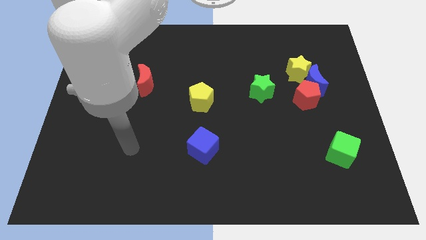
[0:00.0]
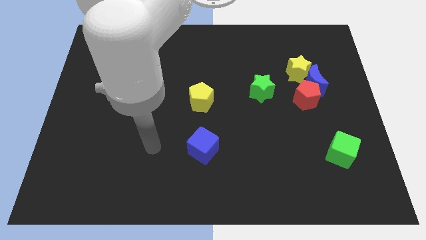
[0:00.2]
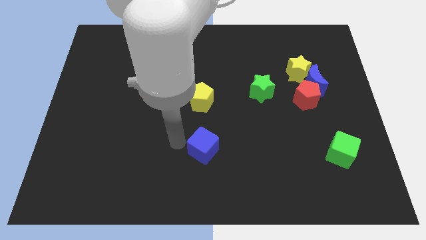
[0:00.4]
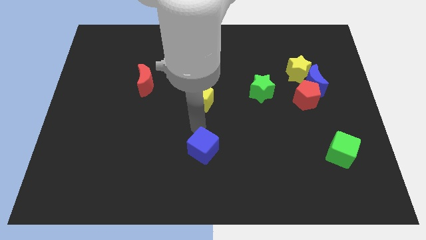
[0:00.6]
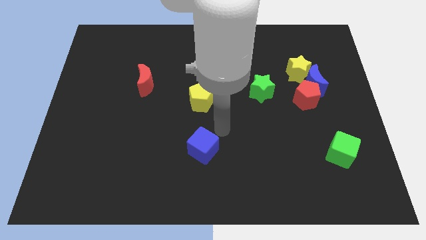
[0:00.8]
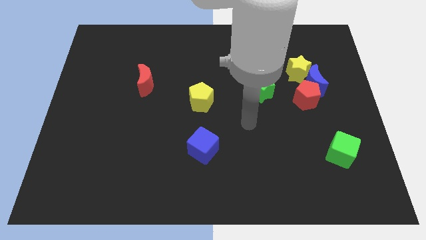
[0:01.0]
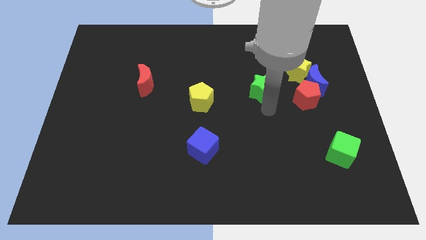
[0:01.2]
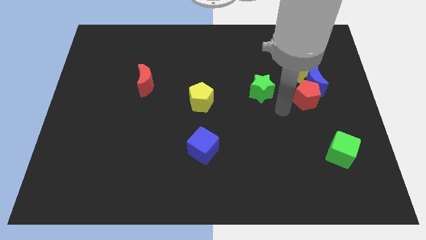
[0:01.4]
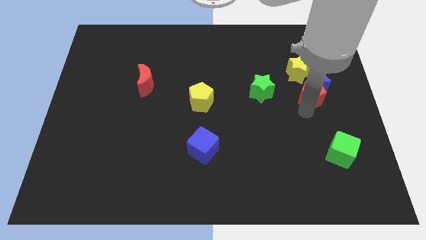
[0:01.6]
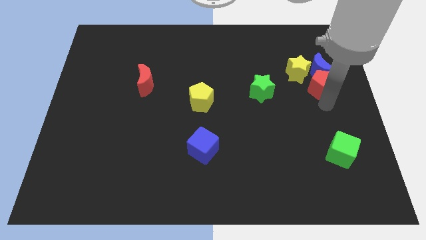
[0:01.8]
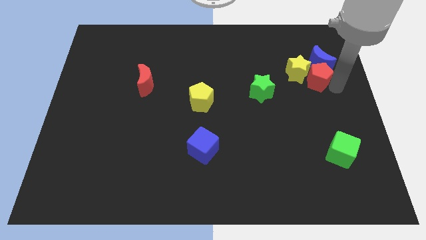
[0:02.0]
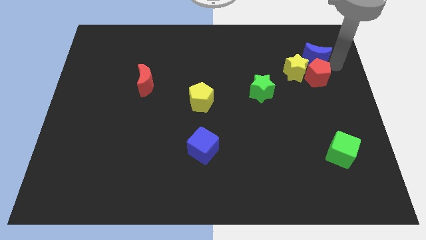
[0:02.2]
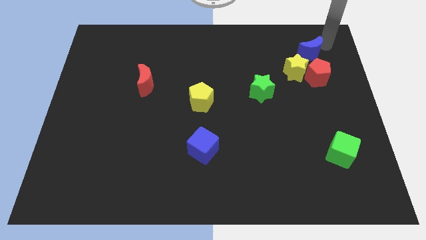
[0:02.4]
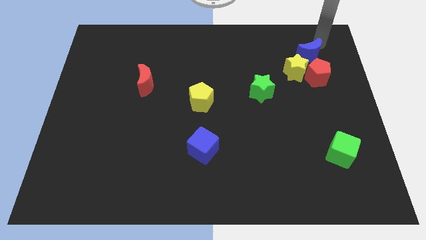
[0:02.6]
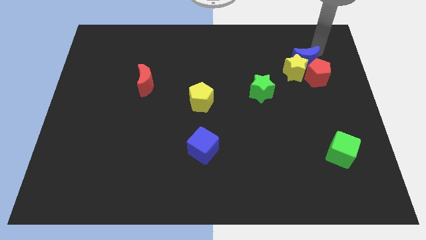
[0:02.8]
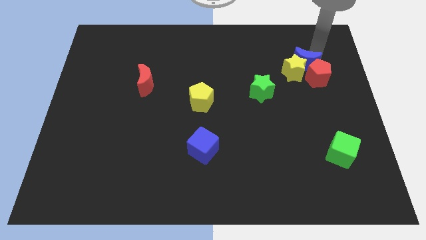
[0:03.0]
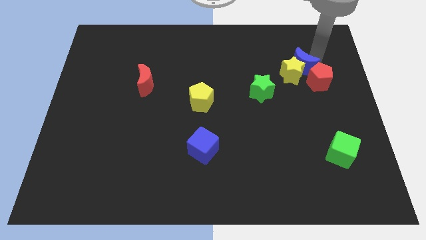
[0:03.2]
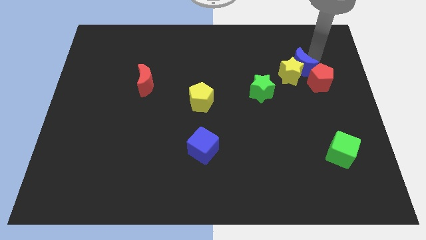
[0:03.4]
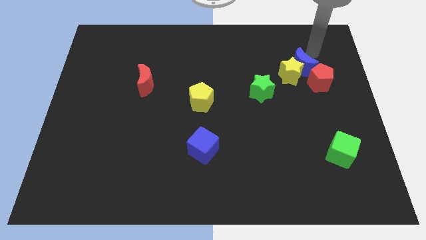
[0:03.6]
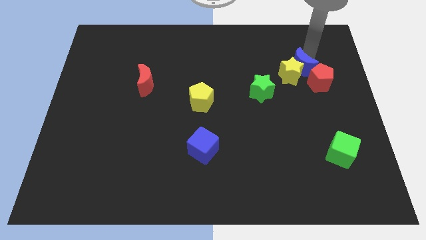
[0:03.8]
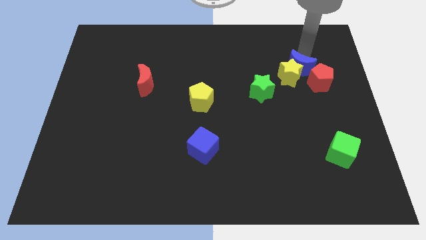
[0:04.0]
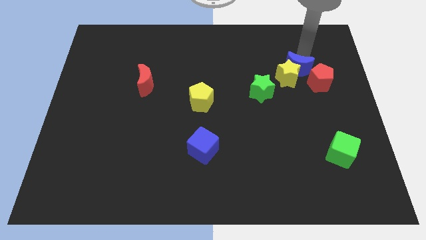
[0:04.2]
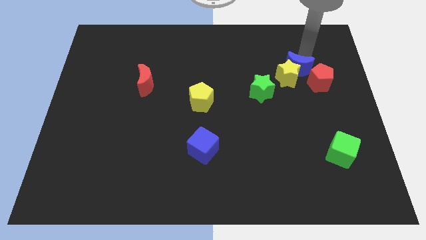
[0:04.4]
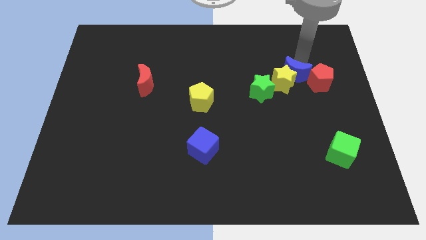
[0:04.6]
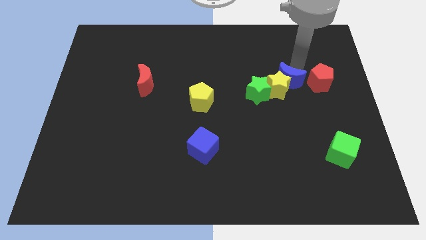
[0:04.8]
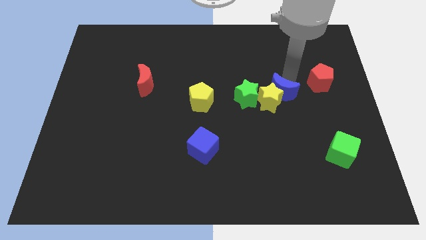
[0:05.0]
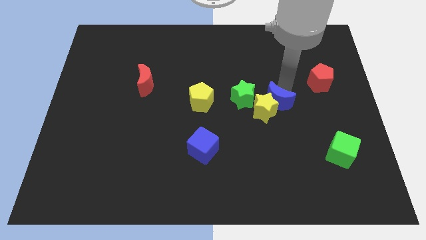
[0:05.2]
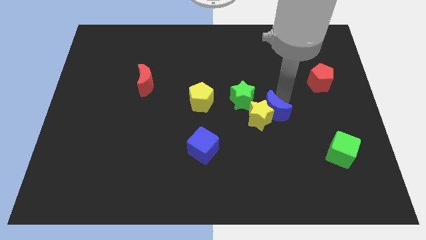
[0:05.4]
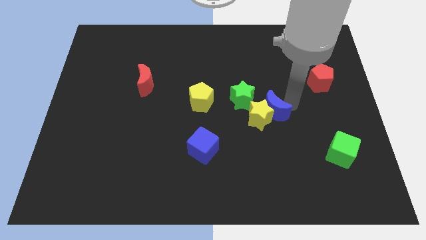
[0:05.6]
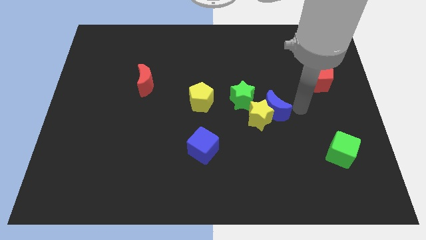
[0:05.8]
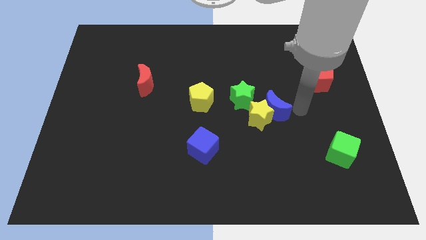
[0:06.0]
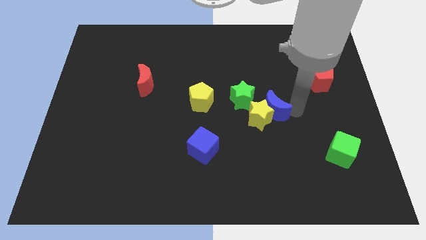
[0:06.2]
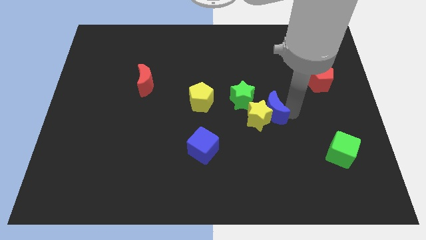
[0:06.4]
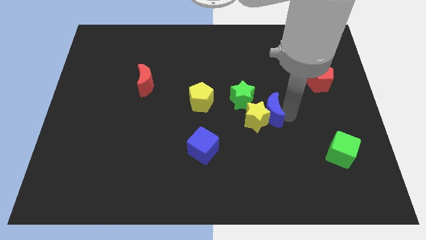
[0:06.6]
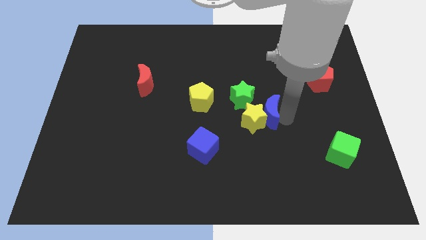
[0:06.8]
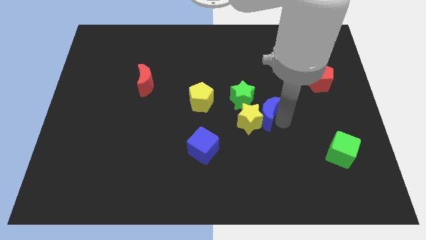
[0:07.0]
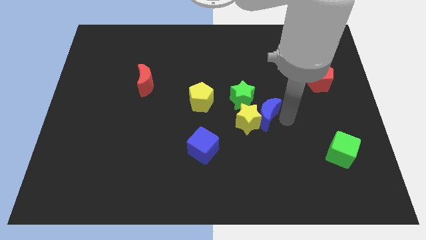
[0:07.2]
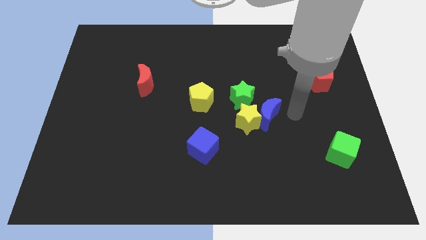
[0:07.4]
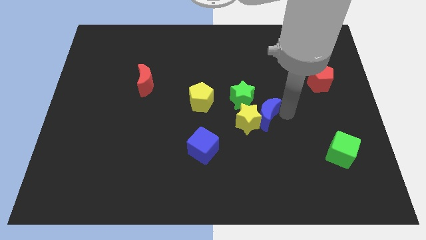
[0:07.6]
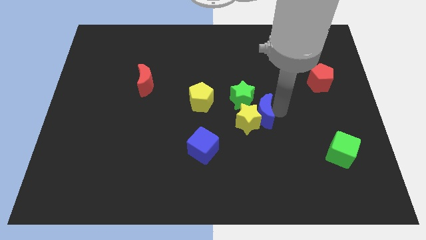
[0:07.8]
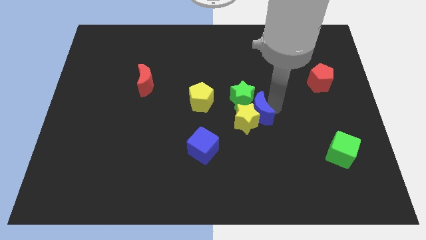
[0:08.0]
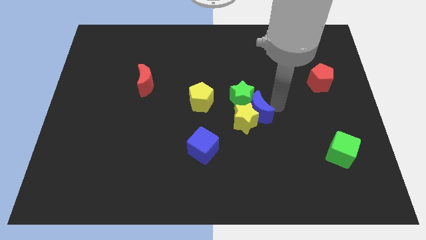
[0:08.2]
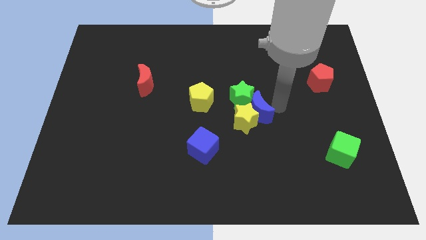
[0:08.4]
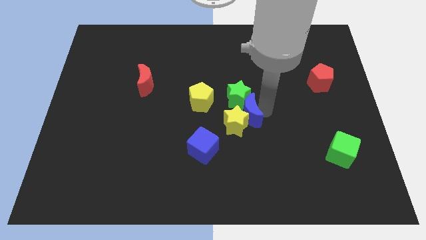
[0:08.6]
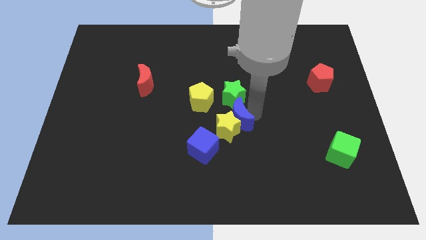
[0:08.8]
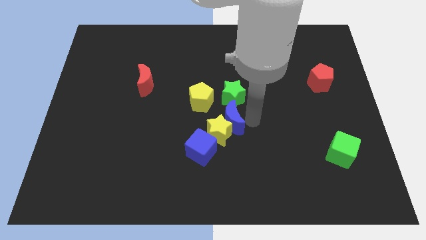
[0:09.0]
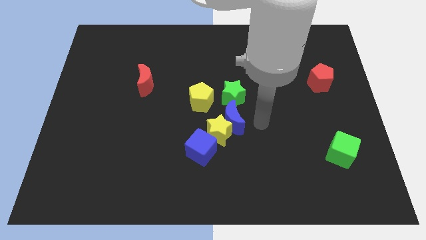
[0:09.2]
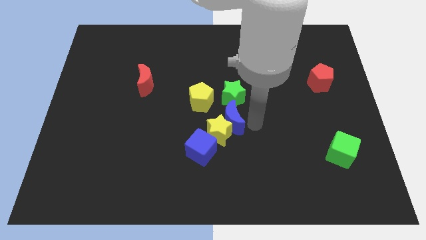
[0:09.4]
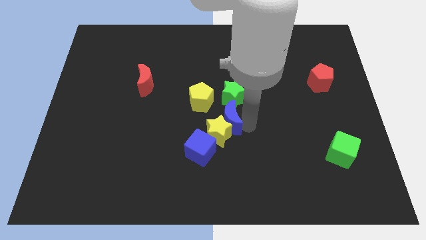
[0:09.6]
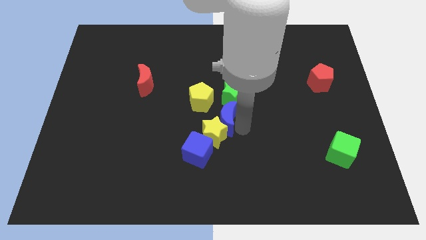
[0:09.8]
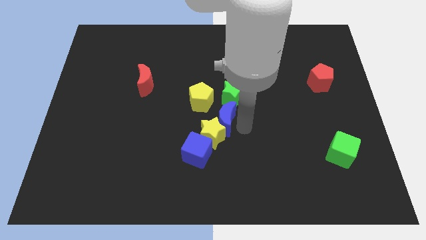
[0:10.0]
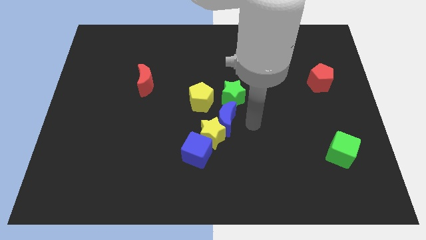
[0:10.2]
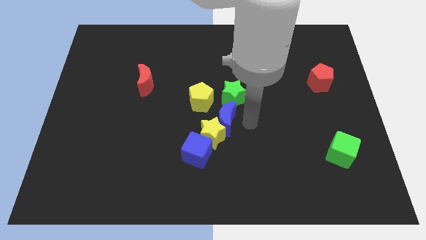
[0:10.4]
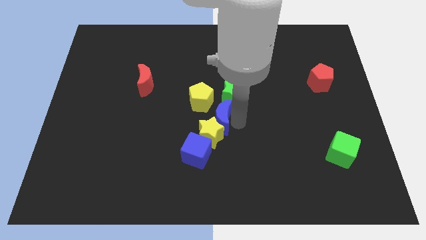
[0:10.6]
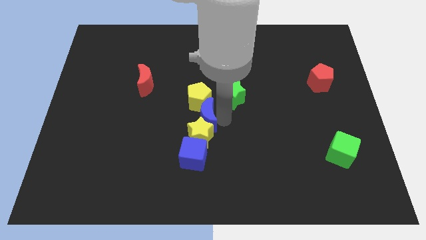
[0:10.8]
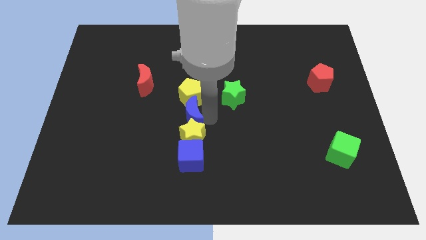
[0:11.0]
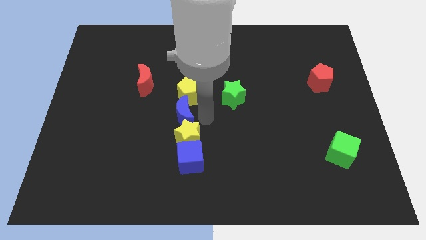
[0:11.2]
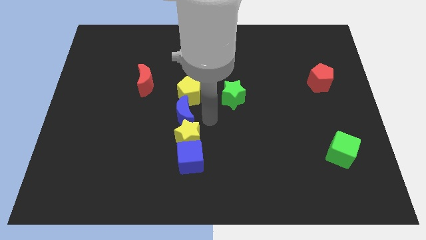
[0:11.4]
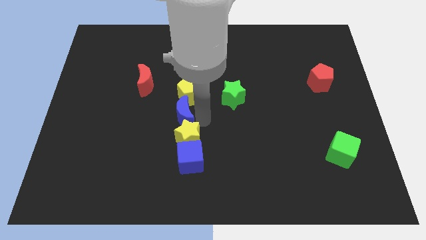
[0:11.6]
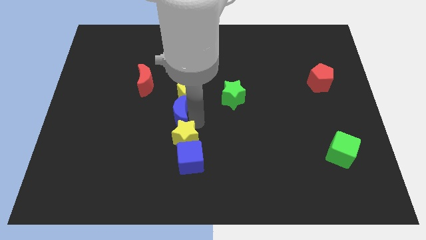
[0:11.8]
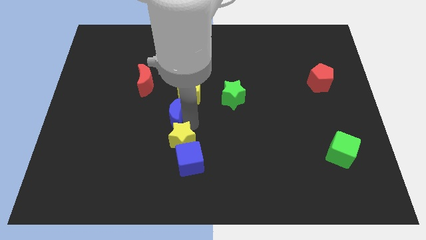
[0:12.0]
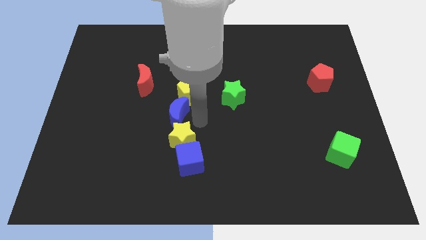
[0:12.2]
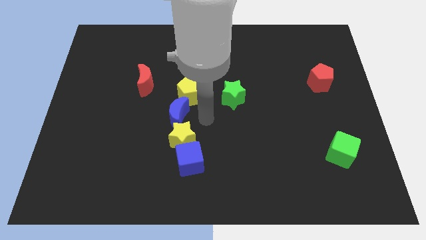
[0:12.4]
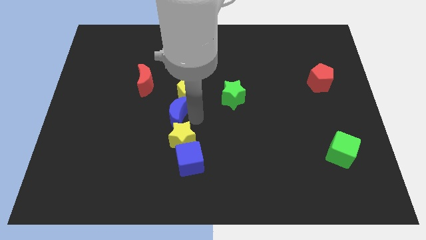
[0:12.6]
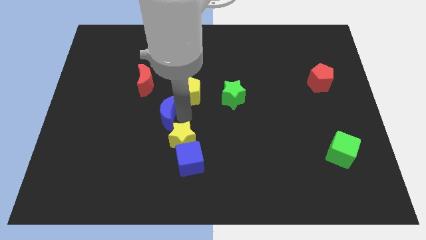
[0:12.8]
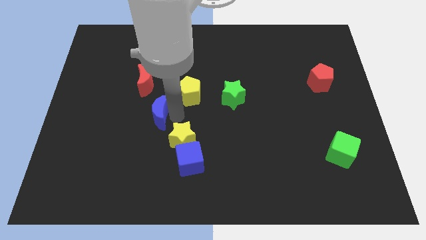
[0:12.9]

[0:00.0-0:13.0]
push the blue moon to the bottom of the red moon

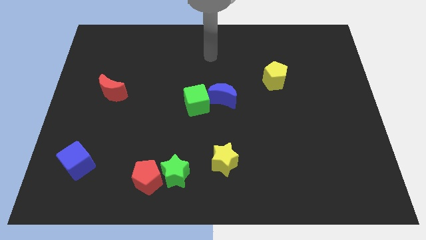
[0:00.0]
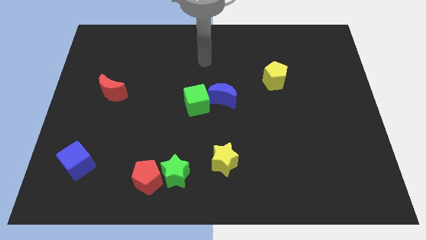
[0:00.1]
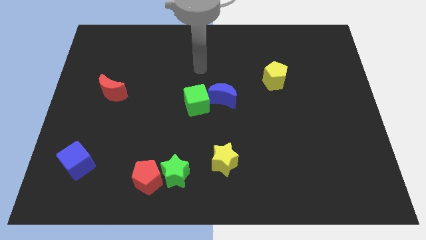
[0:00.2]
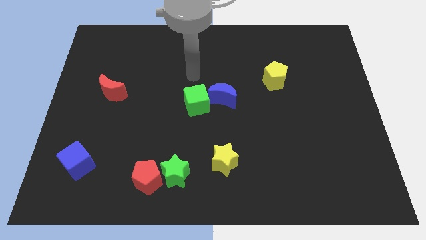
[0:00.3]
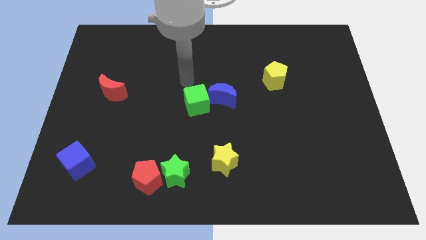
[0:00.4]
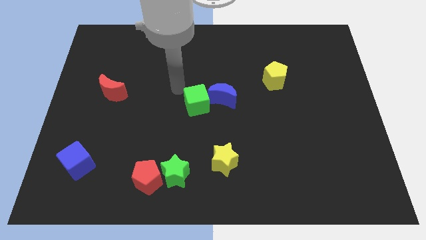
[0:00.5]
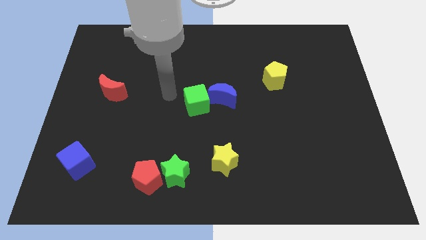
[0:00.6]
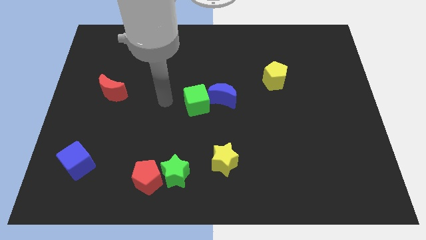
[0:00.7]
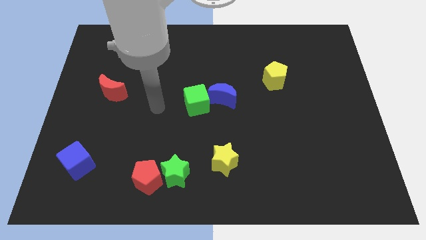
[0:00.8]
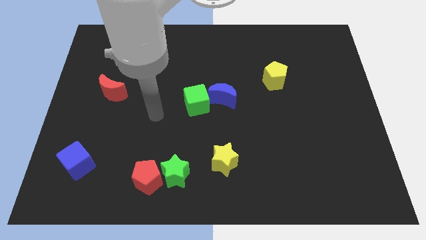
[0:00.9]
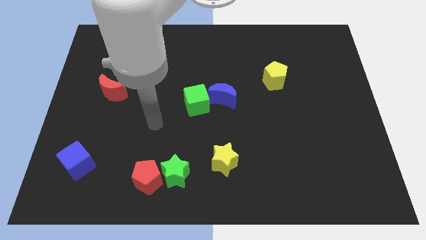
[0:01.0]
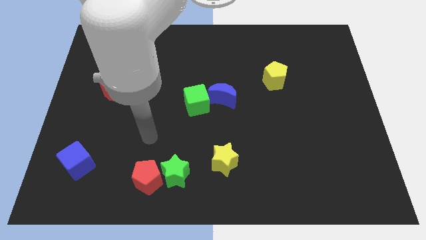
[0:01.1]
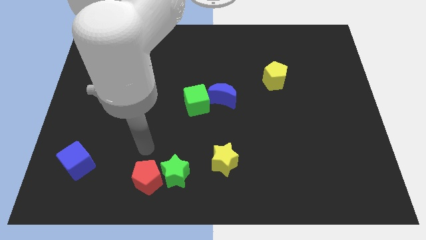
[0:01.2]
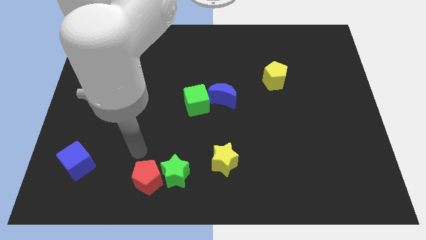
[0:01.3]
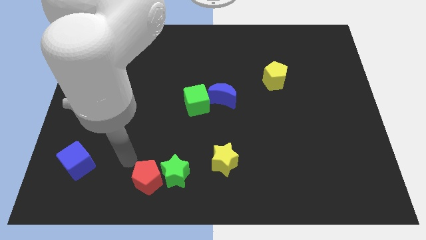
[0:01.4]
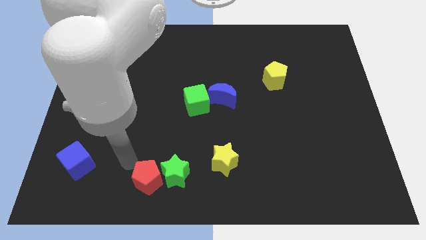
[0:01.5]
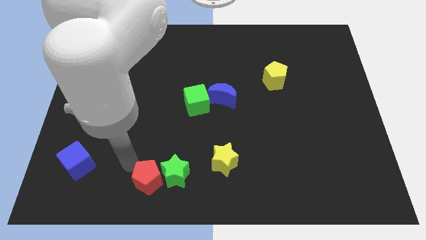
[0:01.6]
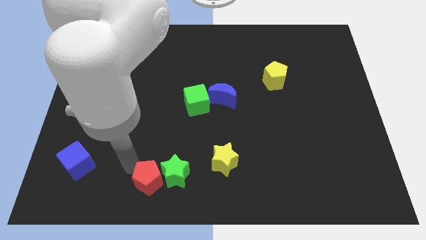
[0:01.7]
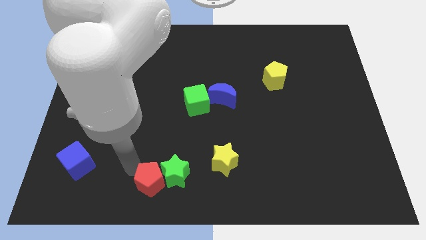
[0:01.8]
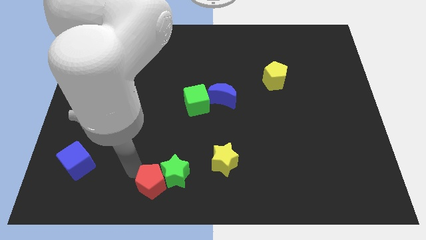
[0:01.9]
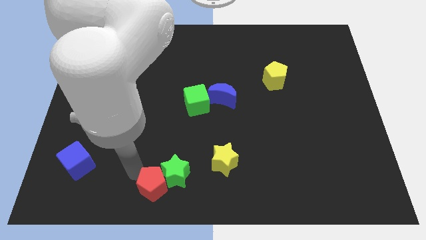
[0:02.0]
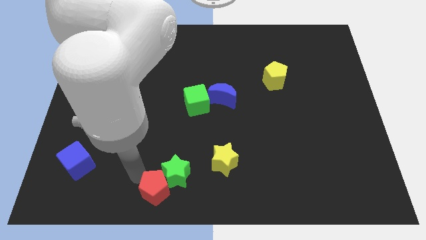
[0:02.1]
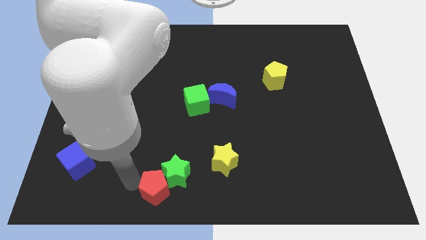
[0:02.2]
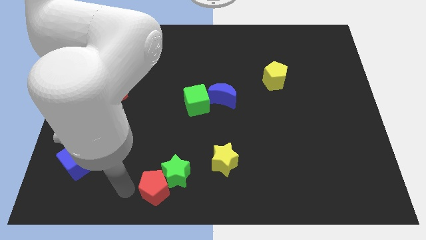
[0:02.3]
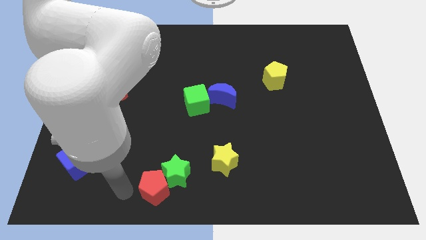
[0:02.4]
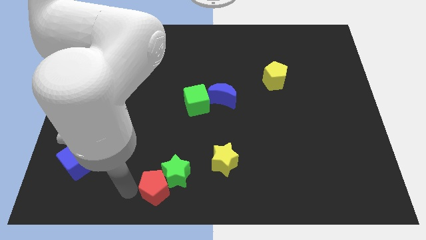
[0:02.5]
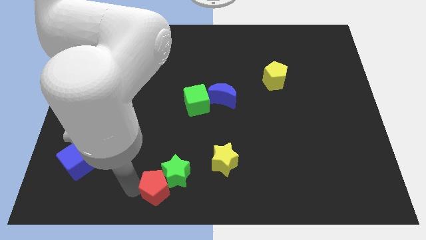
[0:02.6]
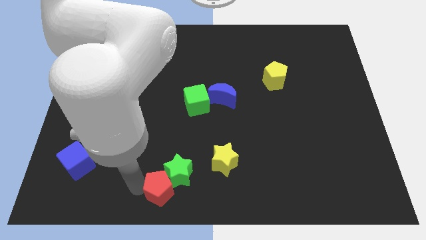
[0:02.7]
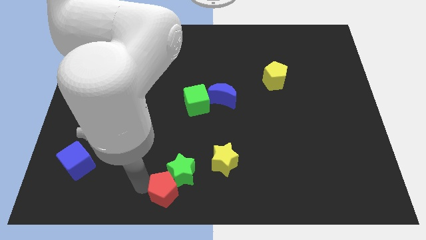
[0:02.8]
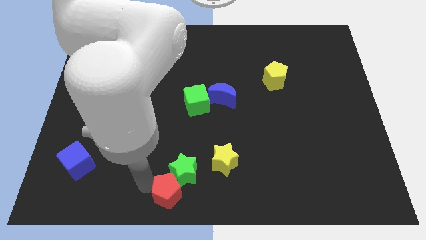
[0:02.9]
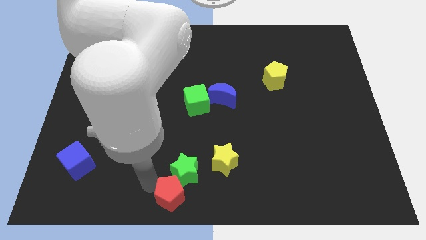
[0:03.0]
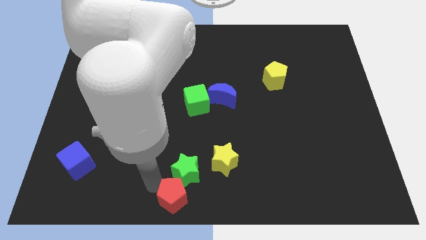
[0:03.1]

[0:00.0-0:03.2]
put the red pentagon to the bottom left of the yellow star
